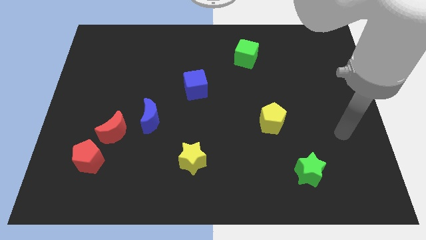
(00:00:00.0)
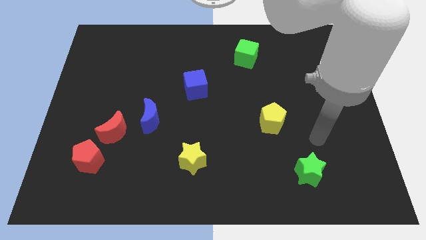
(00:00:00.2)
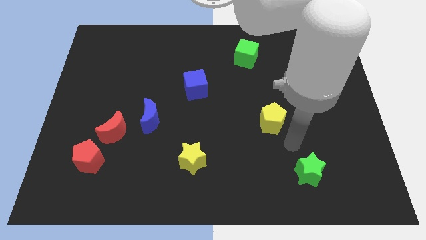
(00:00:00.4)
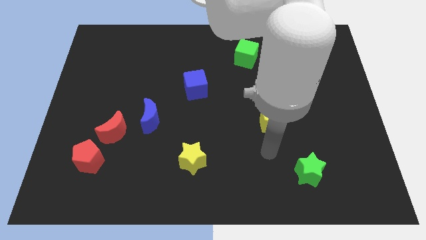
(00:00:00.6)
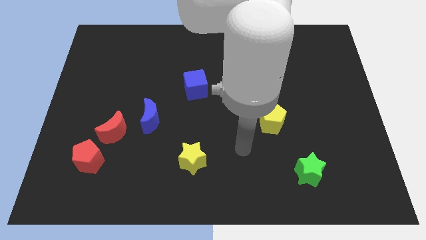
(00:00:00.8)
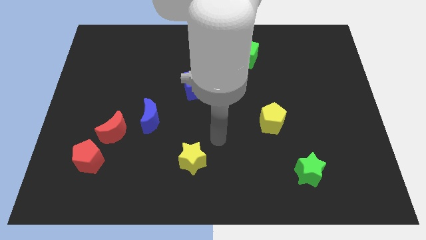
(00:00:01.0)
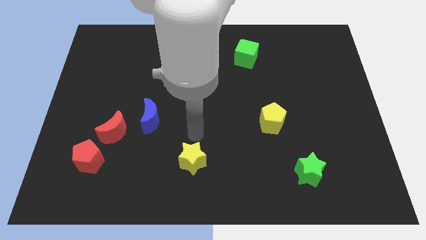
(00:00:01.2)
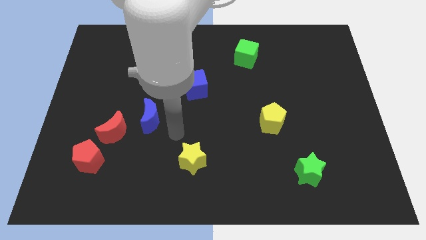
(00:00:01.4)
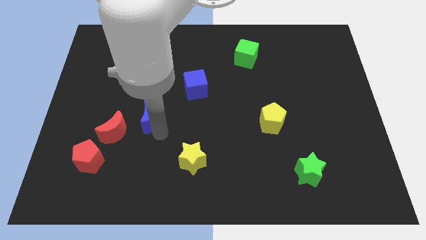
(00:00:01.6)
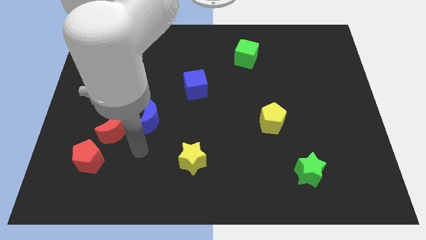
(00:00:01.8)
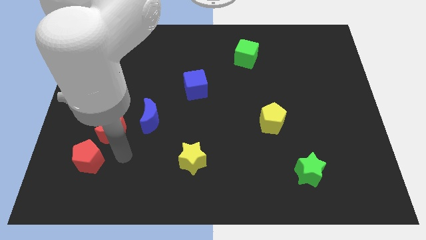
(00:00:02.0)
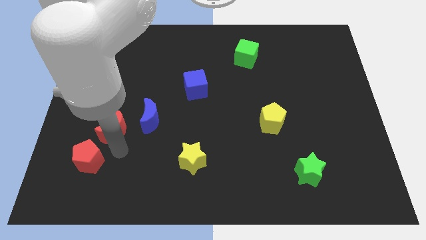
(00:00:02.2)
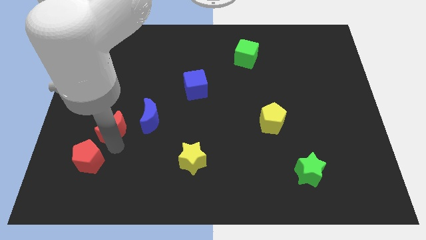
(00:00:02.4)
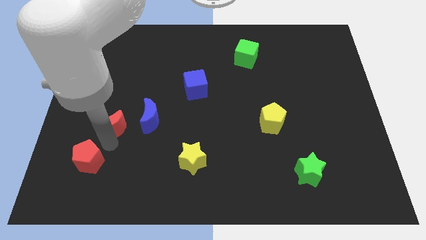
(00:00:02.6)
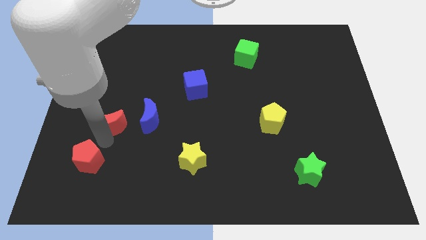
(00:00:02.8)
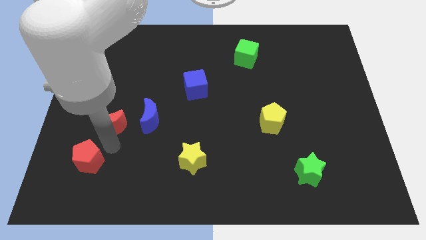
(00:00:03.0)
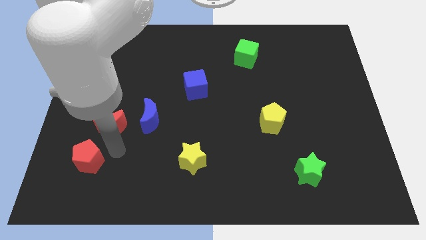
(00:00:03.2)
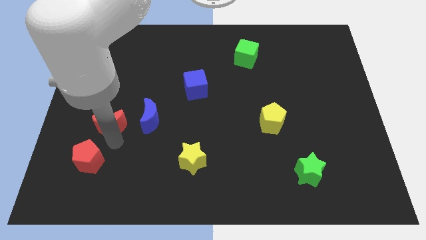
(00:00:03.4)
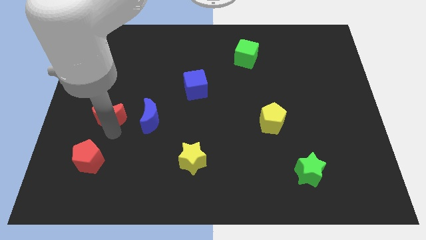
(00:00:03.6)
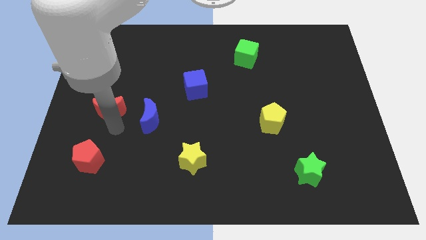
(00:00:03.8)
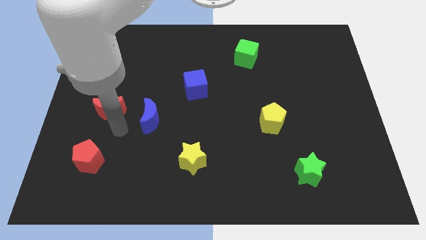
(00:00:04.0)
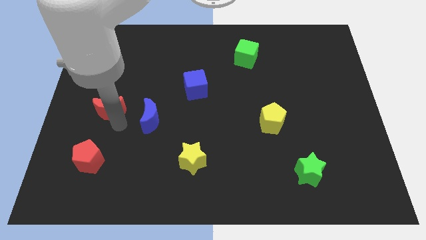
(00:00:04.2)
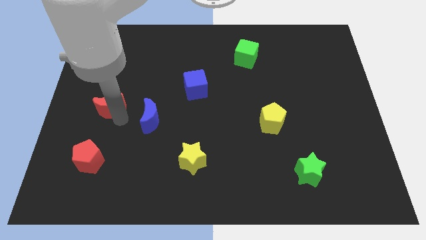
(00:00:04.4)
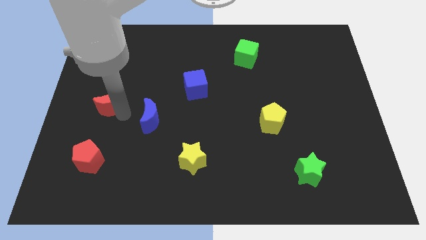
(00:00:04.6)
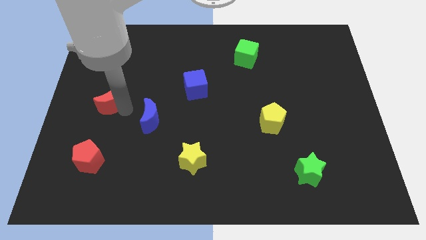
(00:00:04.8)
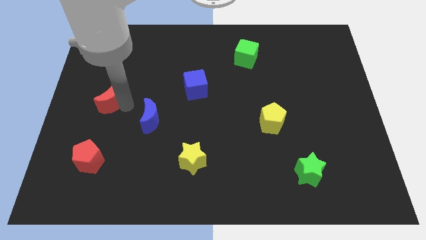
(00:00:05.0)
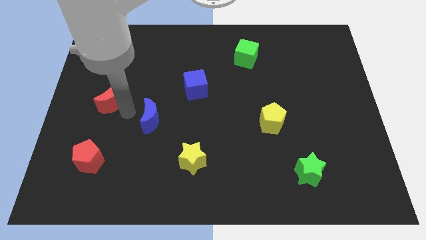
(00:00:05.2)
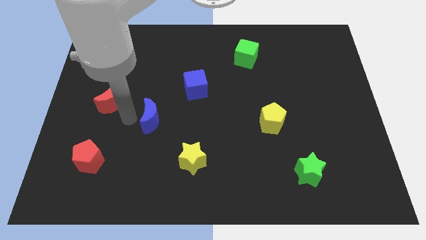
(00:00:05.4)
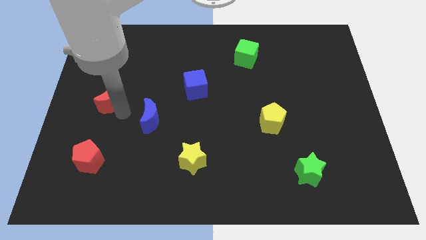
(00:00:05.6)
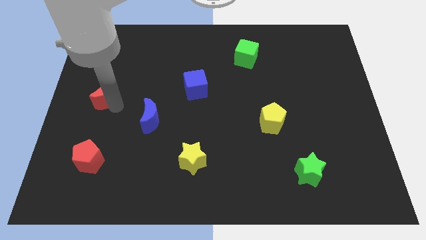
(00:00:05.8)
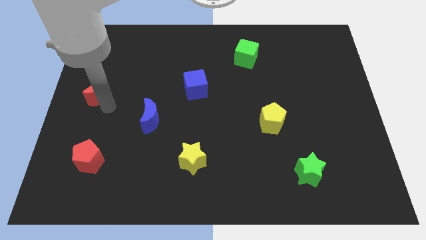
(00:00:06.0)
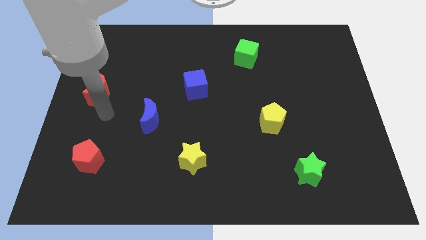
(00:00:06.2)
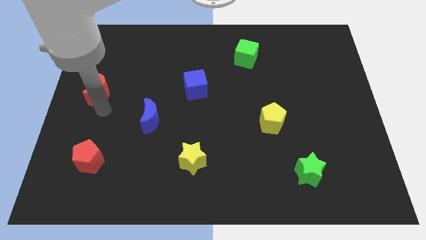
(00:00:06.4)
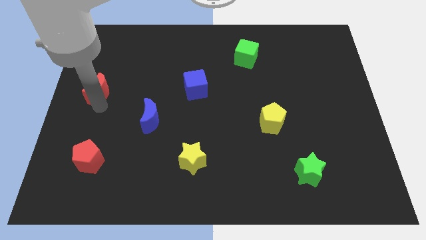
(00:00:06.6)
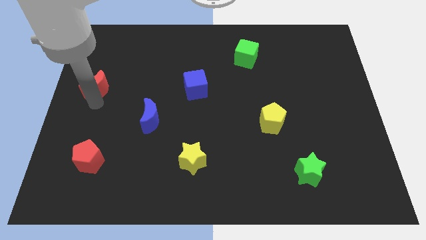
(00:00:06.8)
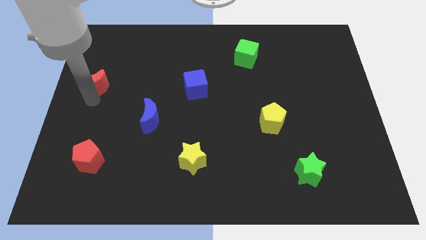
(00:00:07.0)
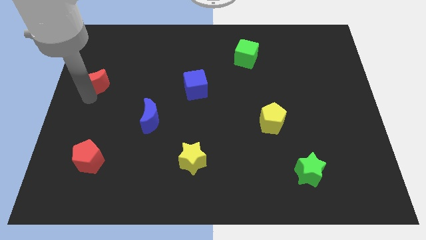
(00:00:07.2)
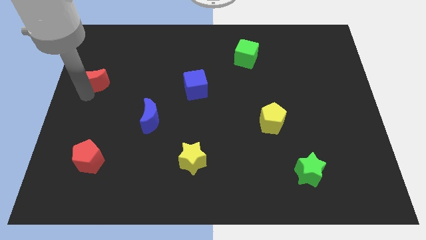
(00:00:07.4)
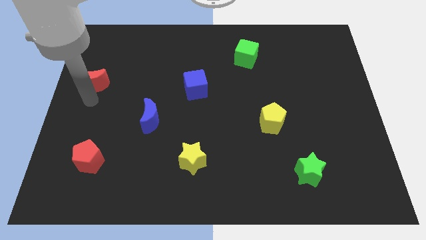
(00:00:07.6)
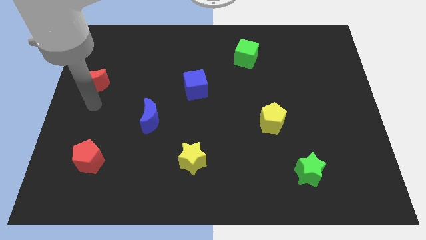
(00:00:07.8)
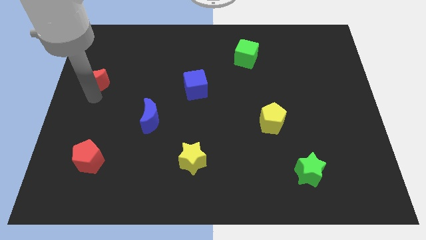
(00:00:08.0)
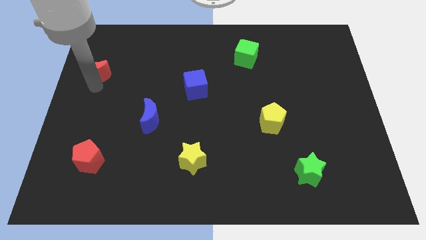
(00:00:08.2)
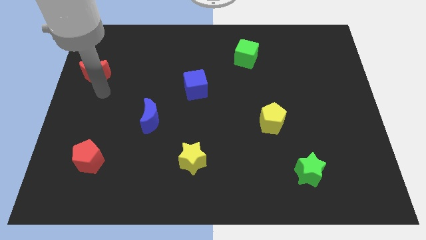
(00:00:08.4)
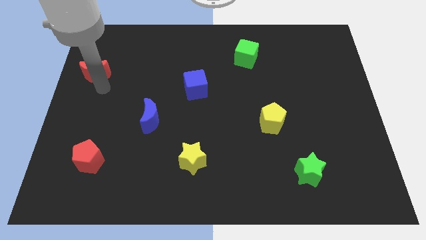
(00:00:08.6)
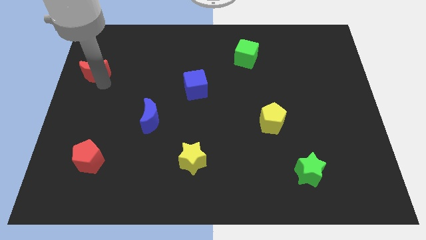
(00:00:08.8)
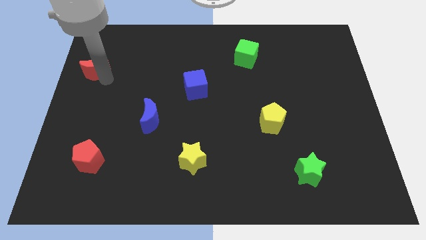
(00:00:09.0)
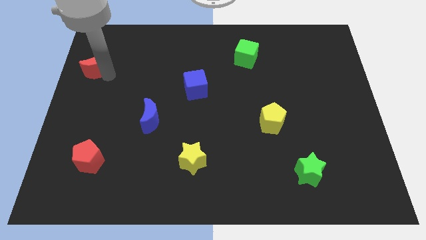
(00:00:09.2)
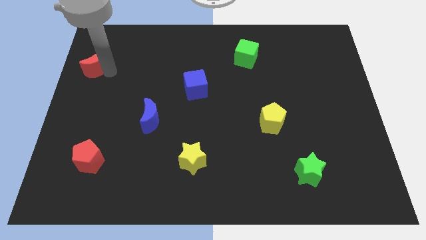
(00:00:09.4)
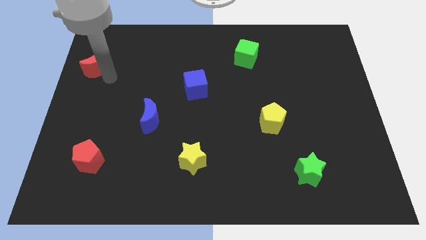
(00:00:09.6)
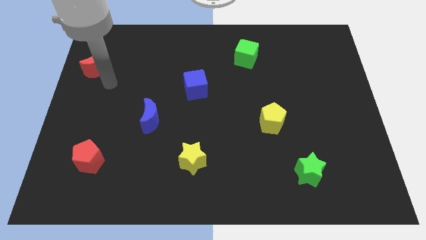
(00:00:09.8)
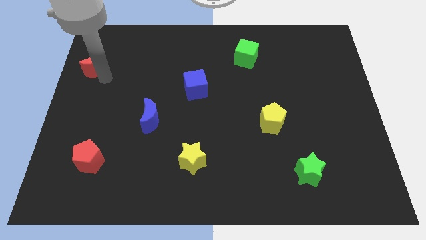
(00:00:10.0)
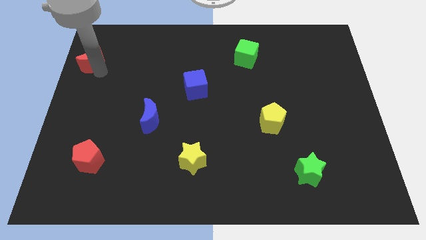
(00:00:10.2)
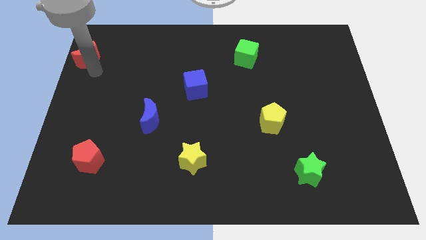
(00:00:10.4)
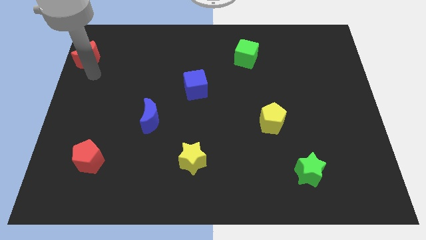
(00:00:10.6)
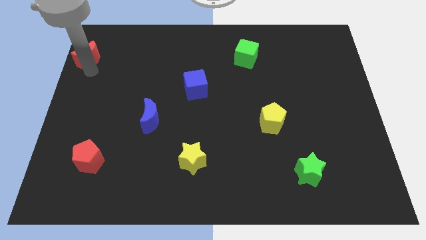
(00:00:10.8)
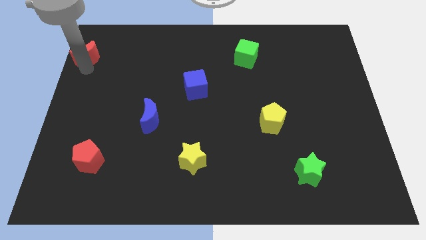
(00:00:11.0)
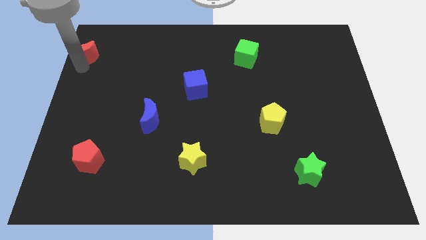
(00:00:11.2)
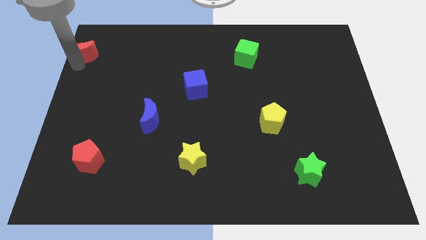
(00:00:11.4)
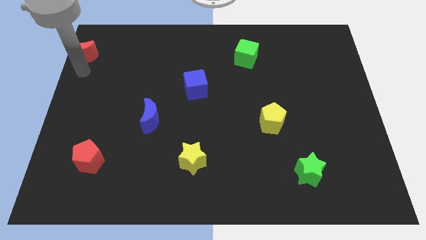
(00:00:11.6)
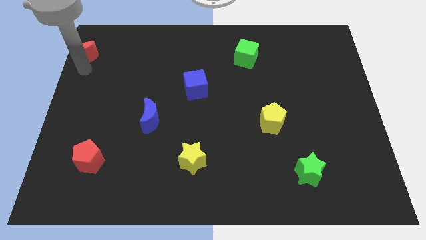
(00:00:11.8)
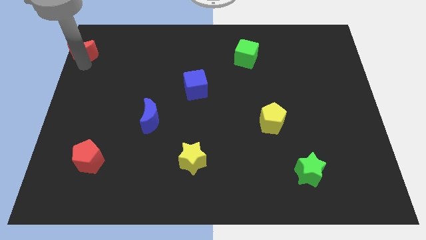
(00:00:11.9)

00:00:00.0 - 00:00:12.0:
move the red moon to the top left corner

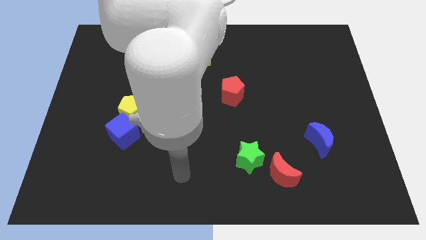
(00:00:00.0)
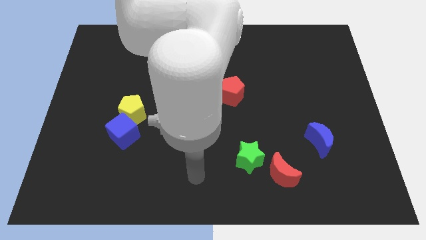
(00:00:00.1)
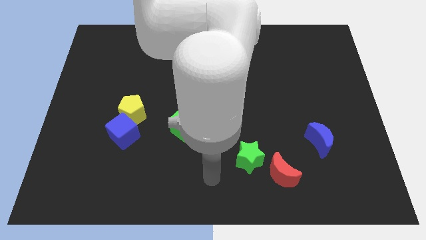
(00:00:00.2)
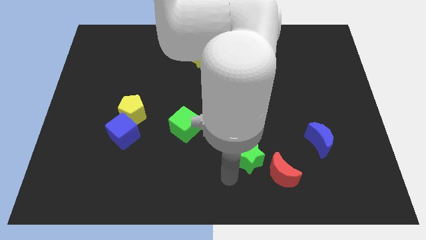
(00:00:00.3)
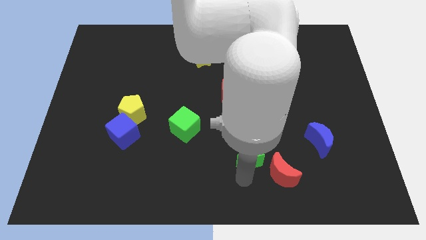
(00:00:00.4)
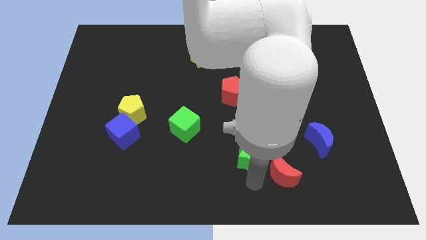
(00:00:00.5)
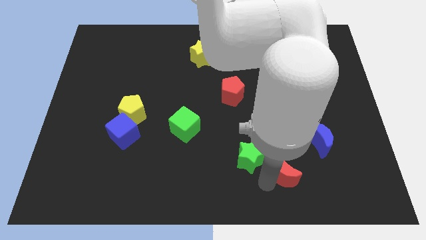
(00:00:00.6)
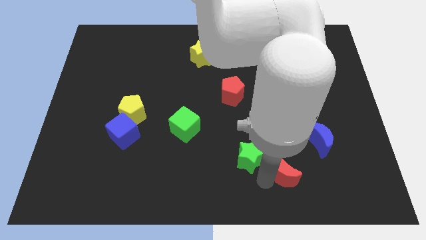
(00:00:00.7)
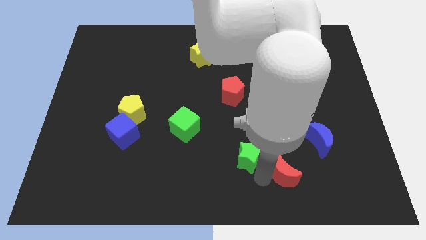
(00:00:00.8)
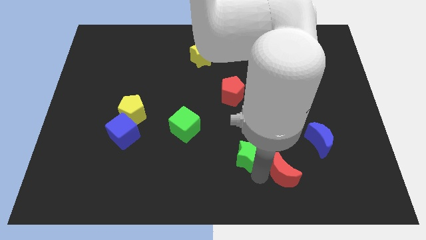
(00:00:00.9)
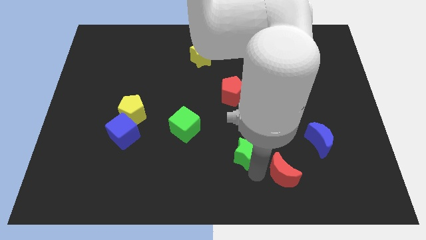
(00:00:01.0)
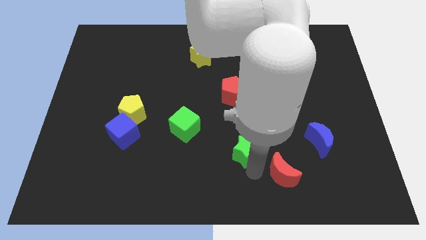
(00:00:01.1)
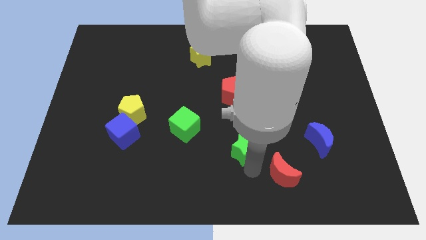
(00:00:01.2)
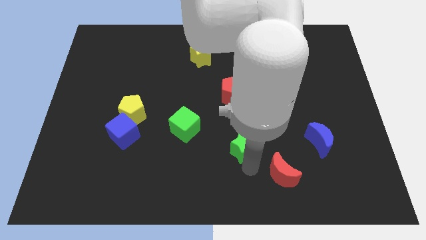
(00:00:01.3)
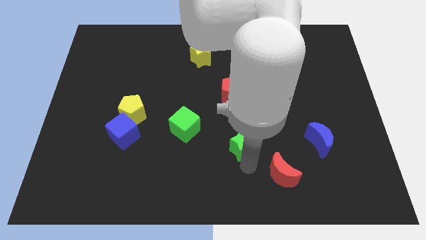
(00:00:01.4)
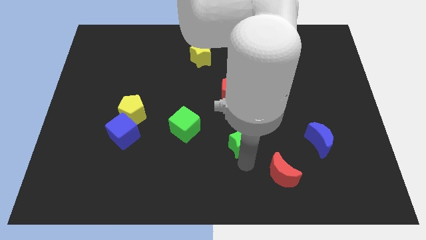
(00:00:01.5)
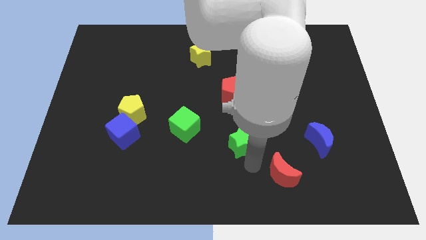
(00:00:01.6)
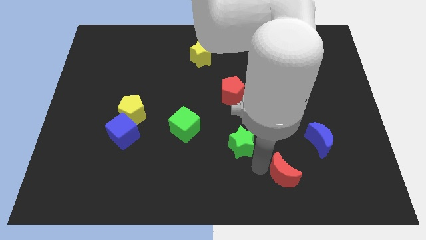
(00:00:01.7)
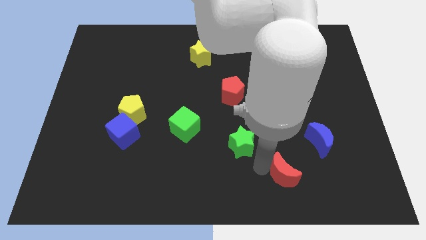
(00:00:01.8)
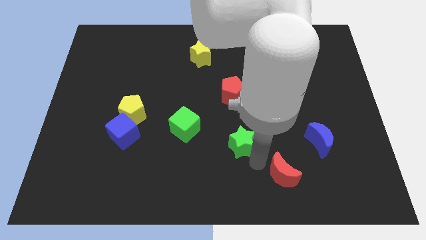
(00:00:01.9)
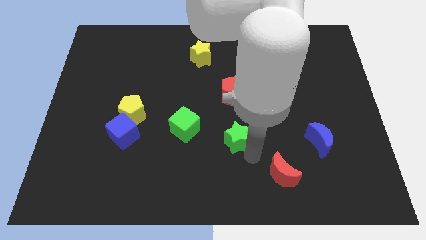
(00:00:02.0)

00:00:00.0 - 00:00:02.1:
move the green star to the middle of the board
